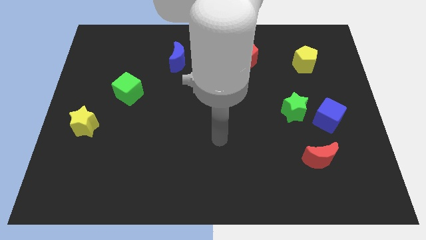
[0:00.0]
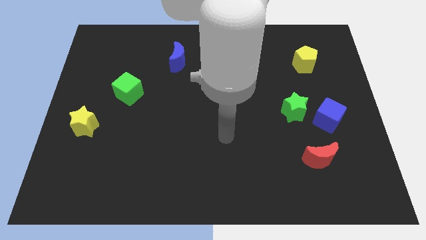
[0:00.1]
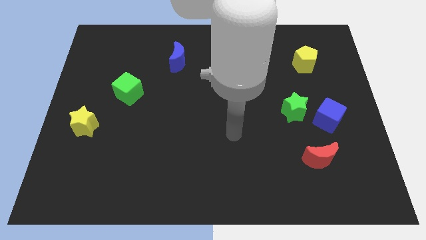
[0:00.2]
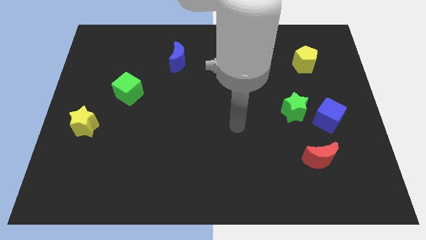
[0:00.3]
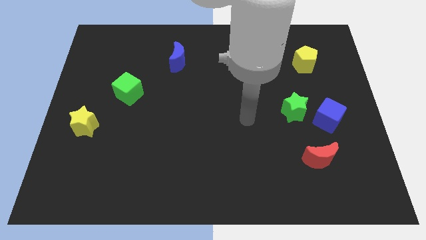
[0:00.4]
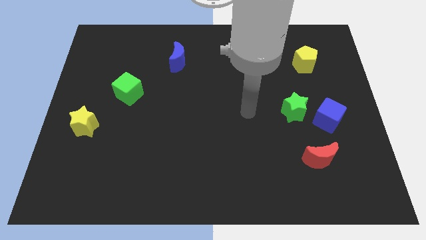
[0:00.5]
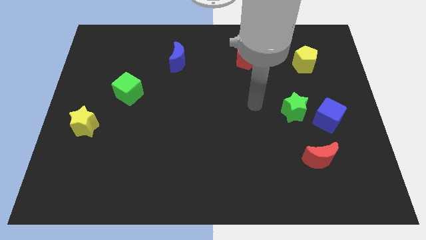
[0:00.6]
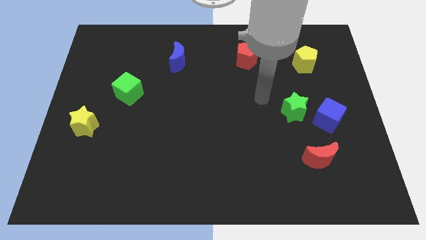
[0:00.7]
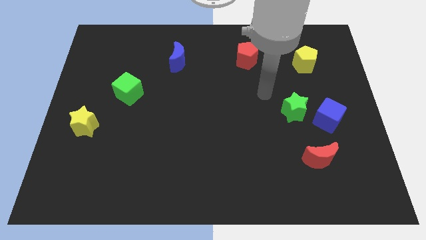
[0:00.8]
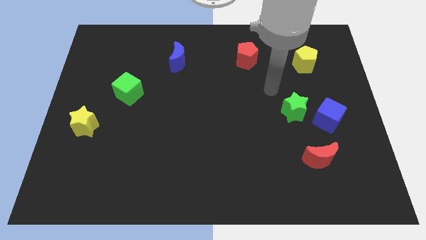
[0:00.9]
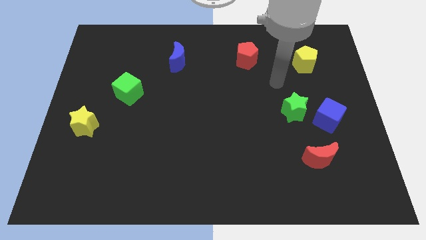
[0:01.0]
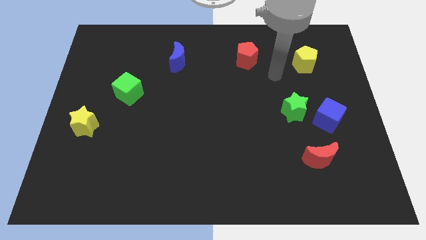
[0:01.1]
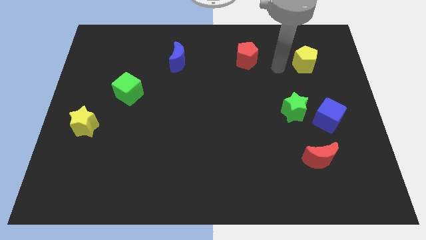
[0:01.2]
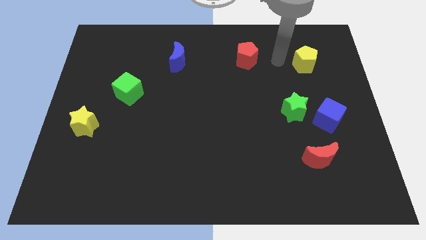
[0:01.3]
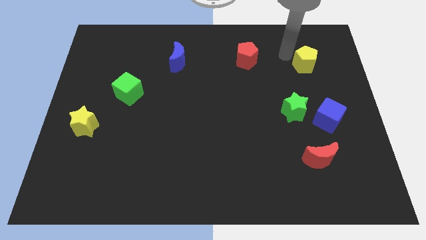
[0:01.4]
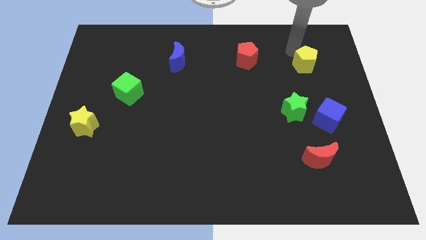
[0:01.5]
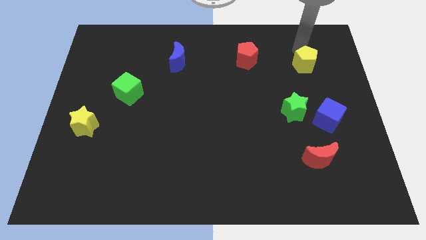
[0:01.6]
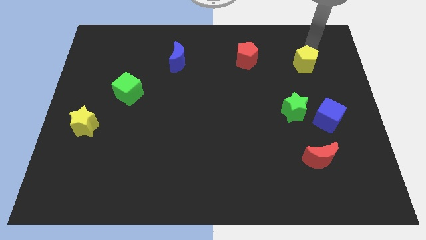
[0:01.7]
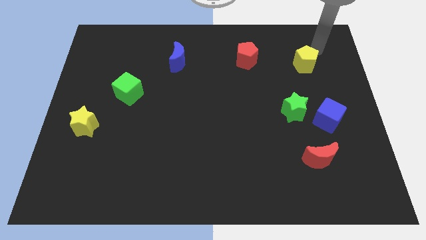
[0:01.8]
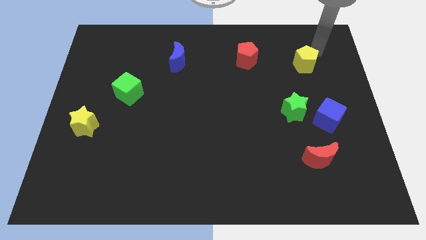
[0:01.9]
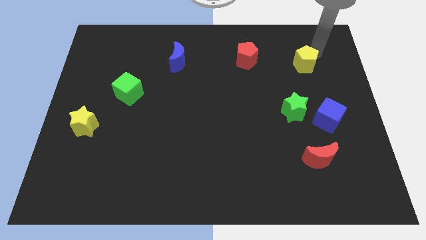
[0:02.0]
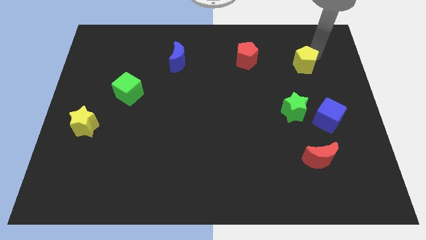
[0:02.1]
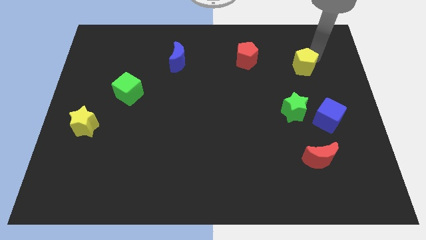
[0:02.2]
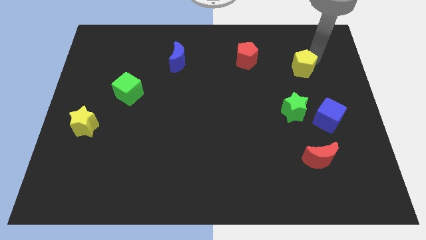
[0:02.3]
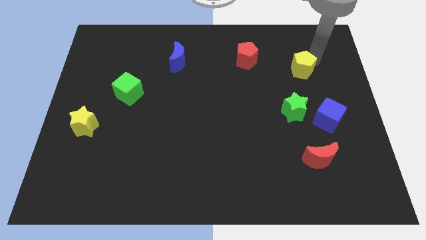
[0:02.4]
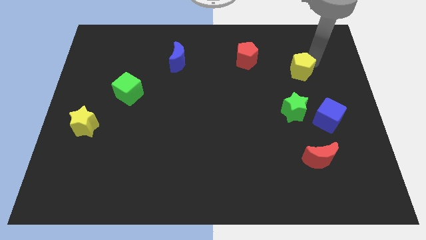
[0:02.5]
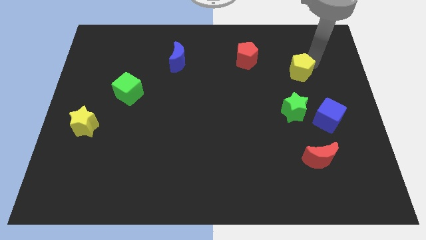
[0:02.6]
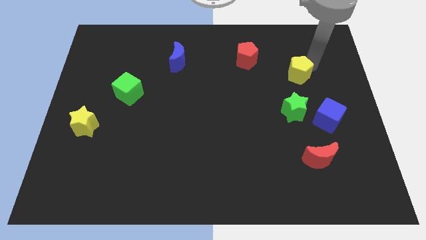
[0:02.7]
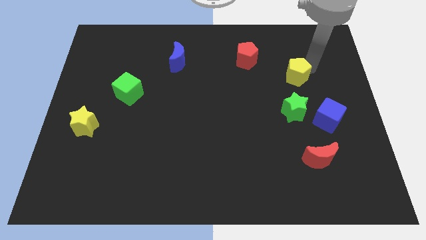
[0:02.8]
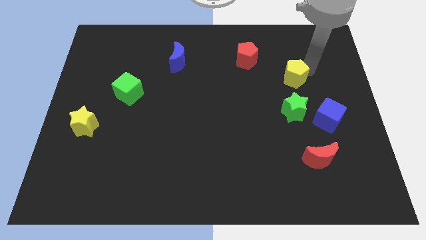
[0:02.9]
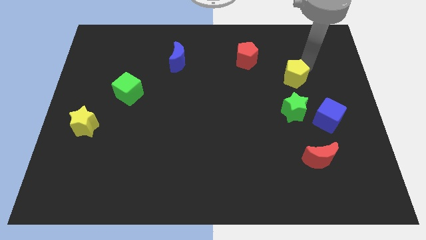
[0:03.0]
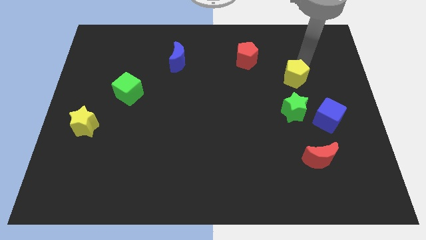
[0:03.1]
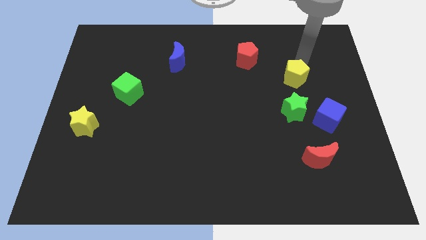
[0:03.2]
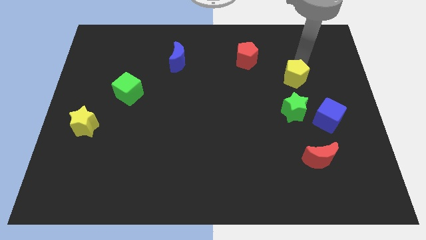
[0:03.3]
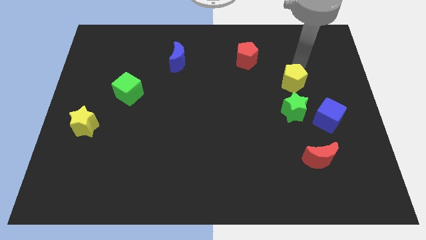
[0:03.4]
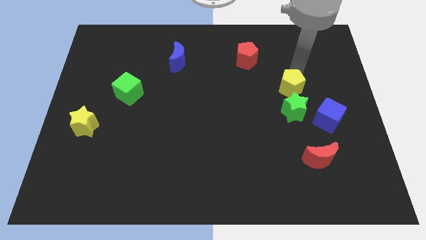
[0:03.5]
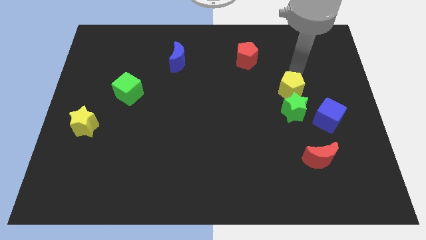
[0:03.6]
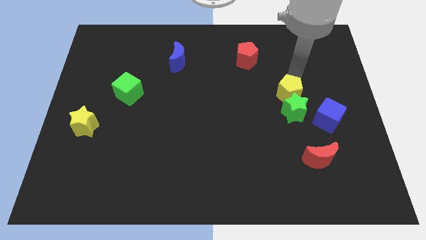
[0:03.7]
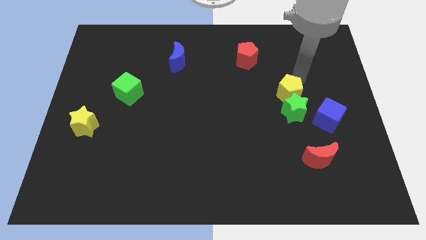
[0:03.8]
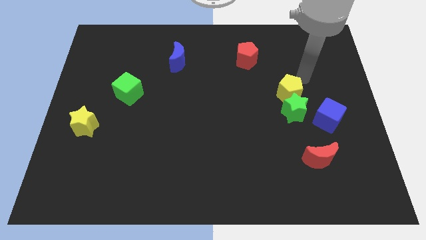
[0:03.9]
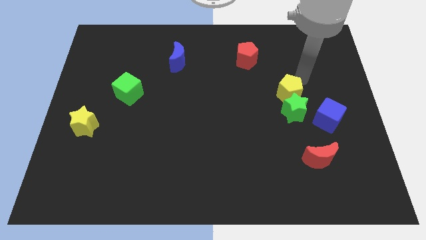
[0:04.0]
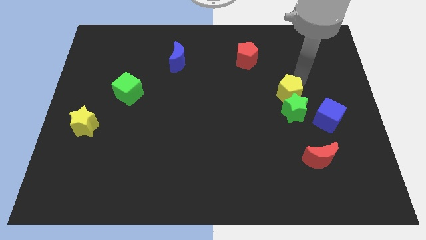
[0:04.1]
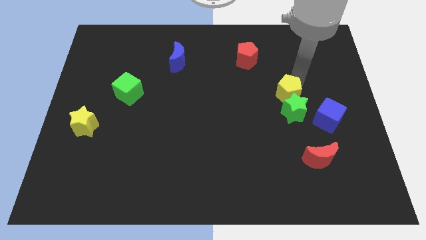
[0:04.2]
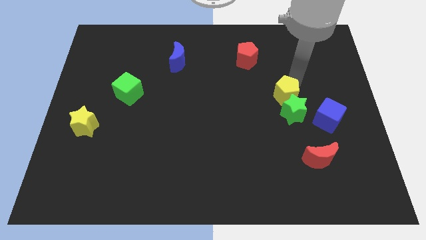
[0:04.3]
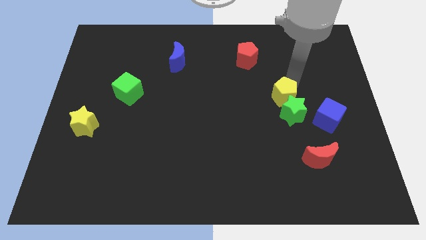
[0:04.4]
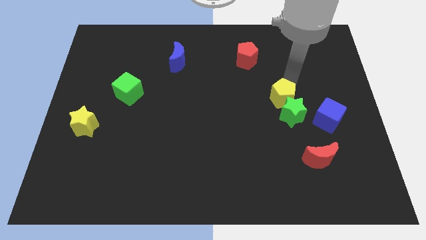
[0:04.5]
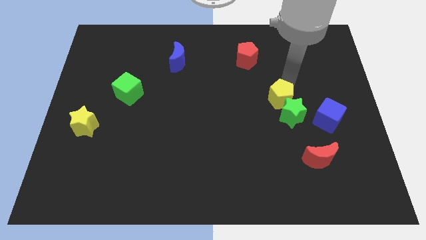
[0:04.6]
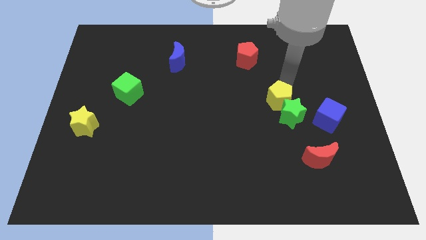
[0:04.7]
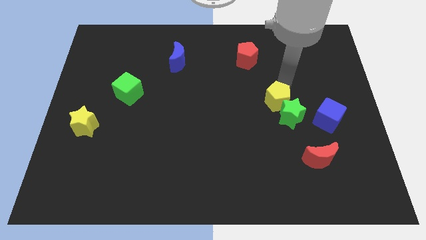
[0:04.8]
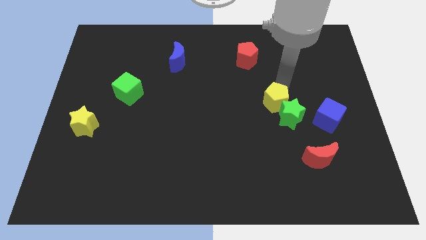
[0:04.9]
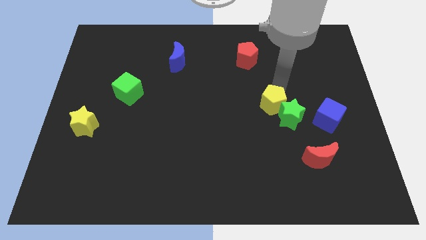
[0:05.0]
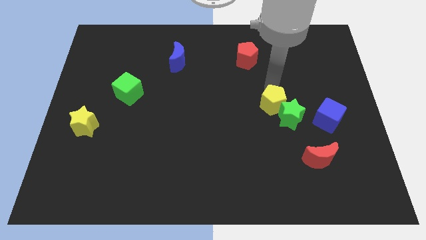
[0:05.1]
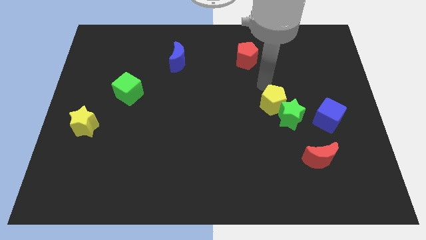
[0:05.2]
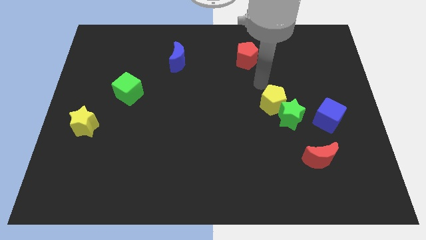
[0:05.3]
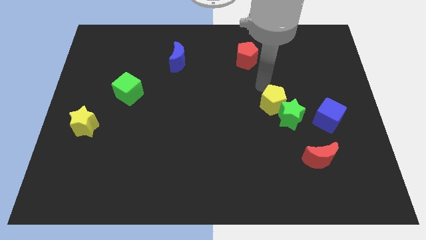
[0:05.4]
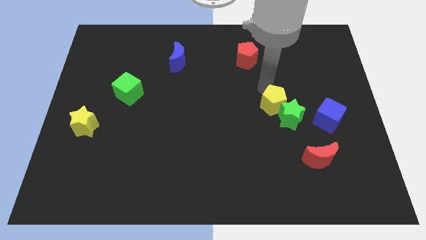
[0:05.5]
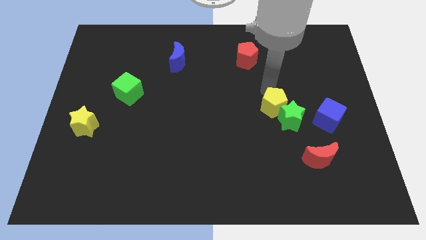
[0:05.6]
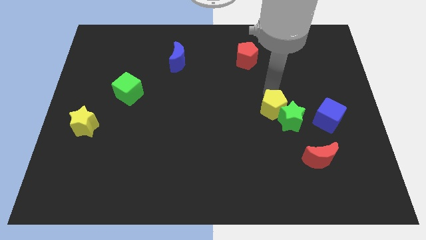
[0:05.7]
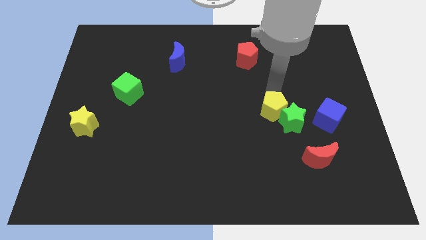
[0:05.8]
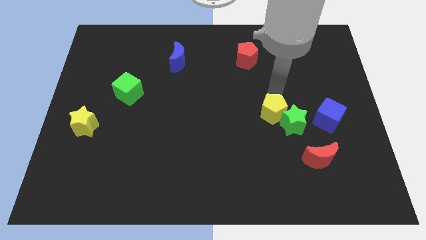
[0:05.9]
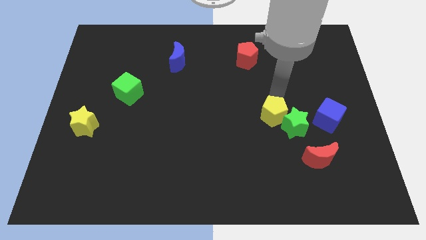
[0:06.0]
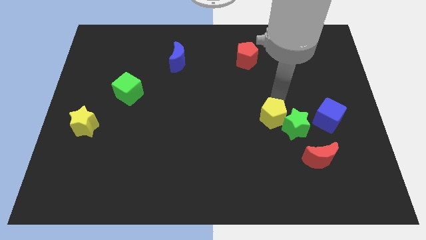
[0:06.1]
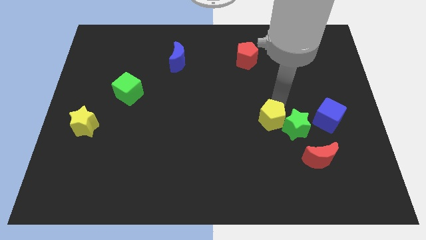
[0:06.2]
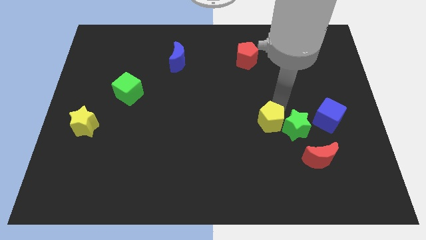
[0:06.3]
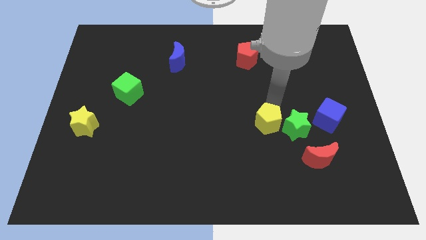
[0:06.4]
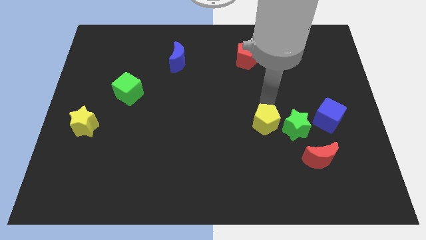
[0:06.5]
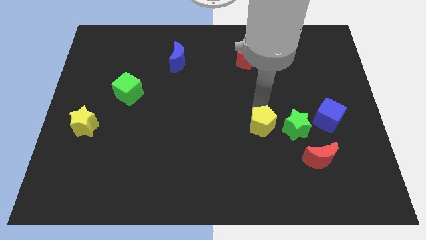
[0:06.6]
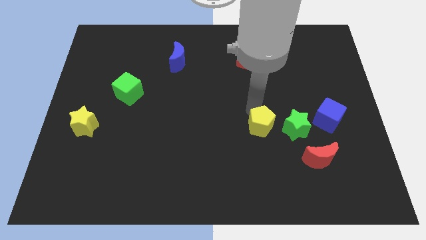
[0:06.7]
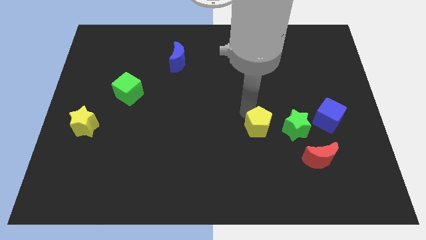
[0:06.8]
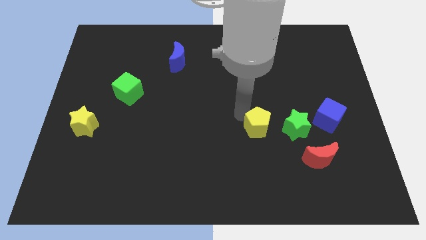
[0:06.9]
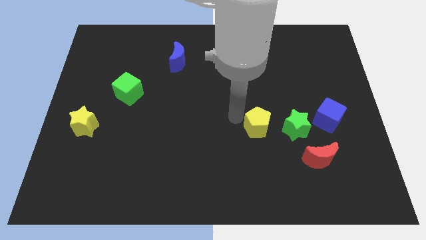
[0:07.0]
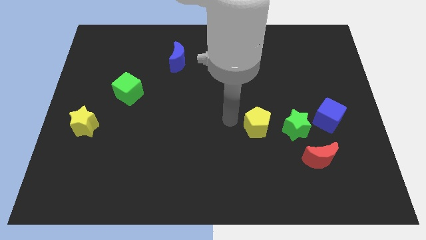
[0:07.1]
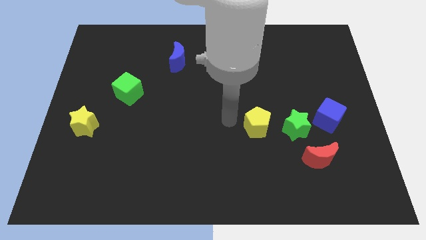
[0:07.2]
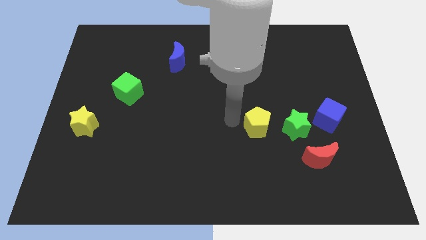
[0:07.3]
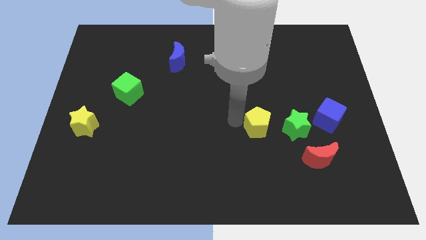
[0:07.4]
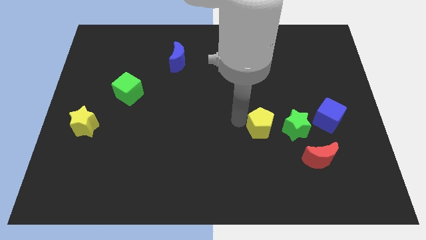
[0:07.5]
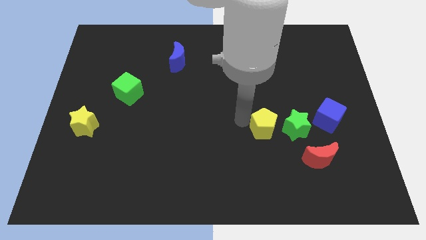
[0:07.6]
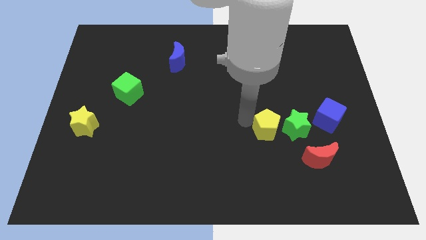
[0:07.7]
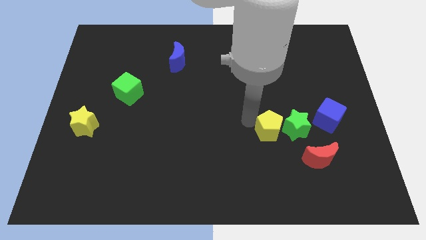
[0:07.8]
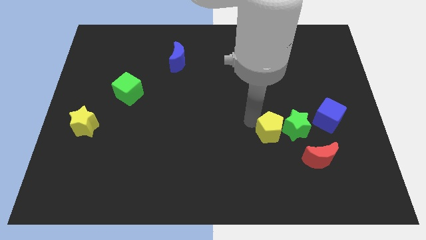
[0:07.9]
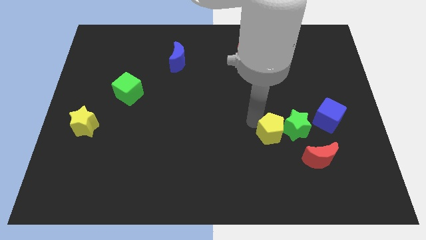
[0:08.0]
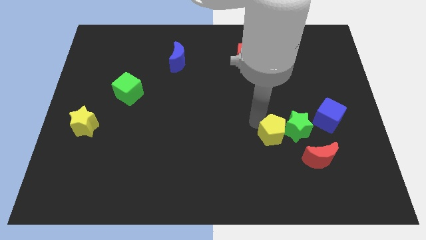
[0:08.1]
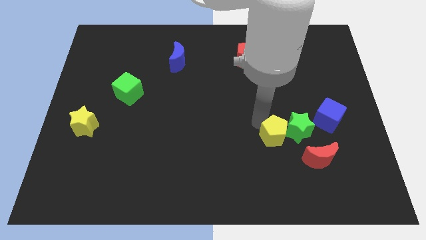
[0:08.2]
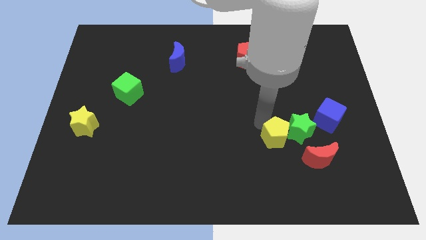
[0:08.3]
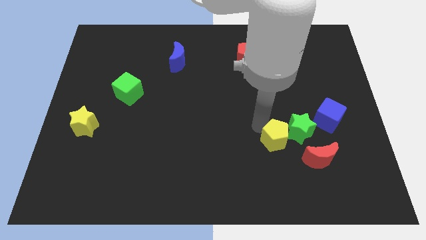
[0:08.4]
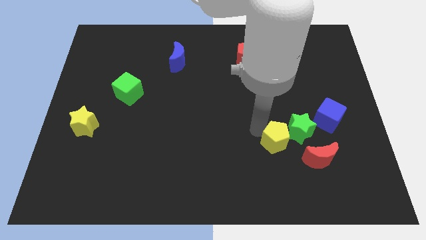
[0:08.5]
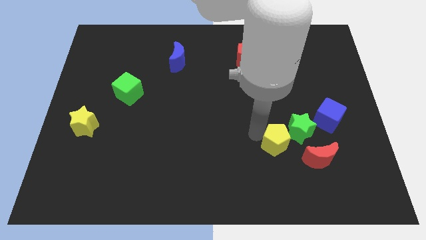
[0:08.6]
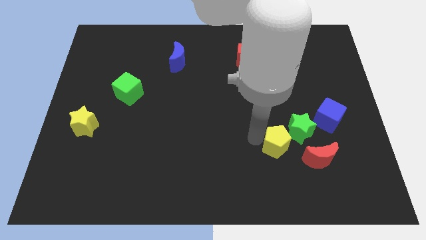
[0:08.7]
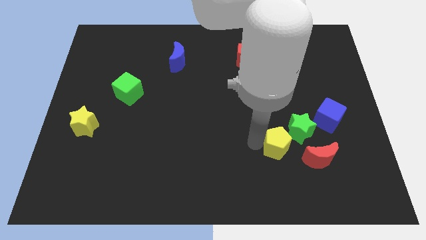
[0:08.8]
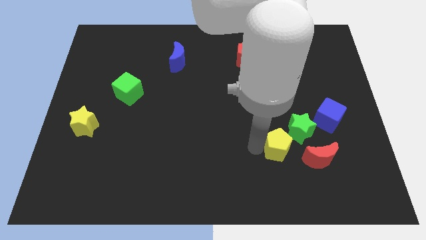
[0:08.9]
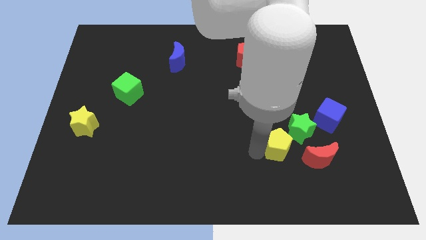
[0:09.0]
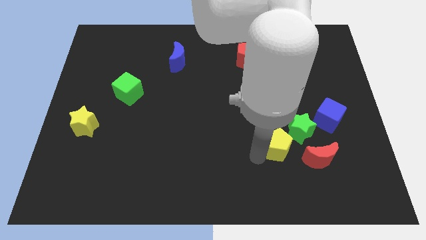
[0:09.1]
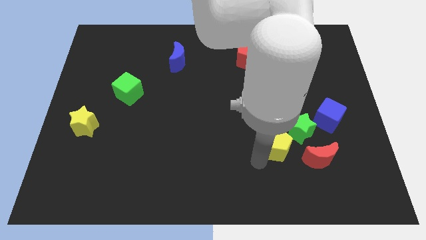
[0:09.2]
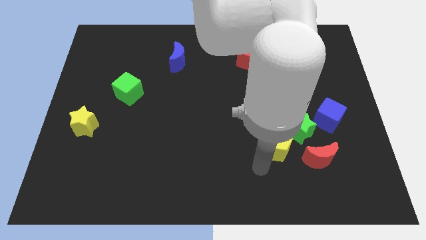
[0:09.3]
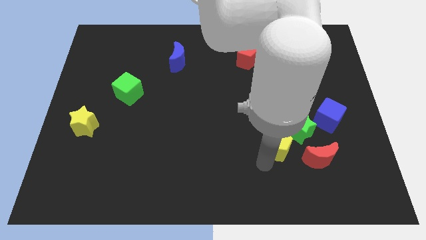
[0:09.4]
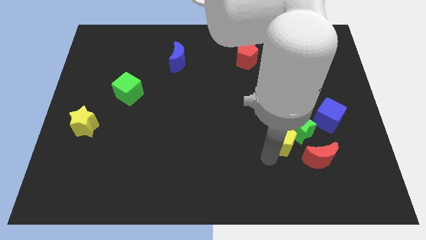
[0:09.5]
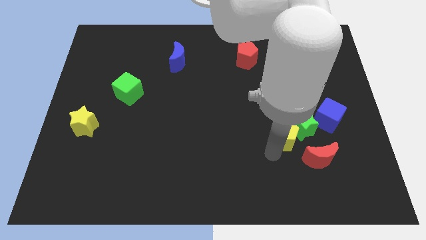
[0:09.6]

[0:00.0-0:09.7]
put the yellow pentagon diagonally down and to the left of the blue cube
